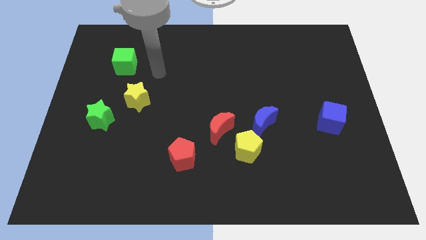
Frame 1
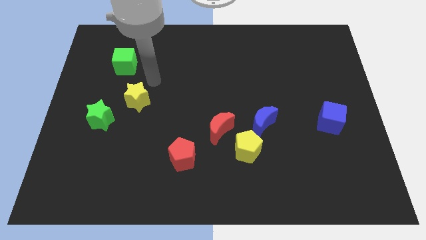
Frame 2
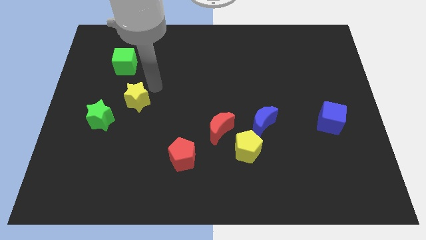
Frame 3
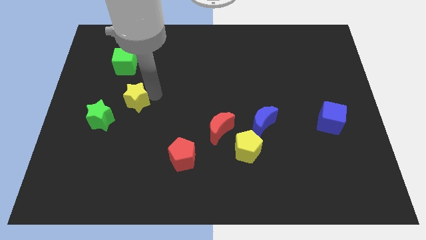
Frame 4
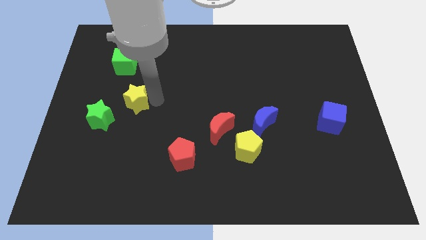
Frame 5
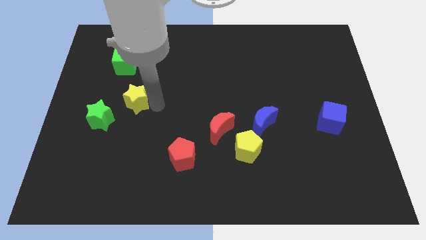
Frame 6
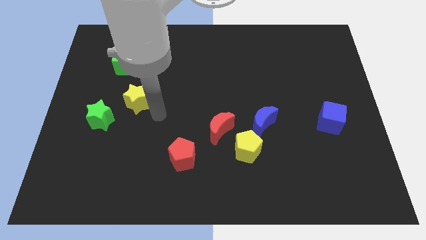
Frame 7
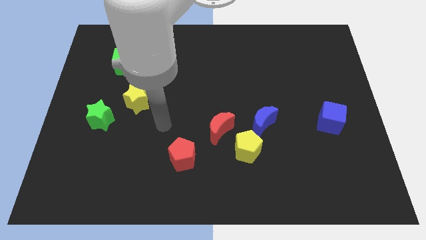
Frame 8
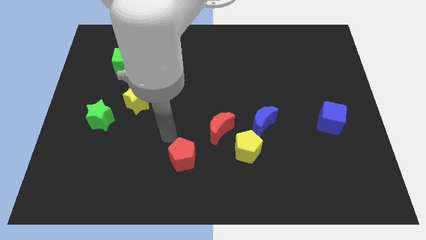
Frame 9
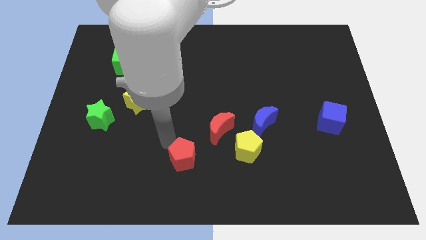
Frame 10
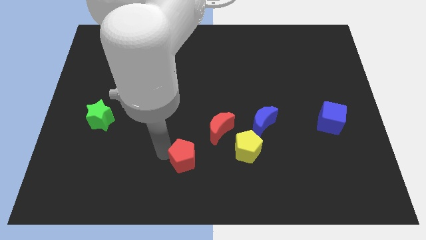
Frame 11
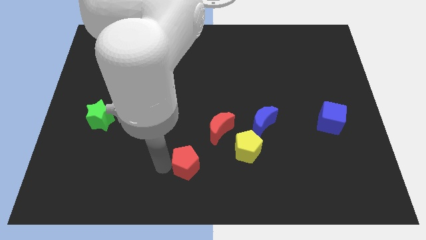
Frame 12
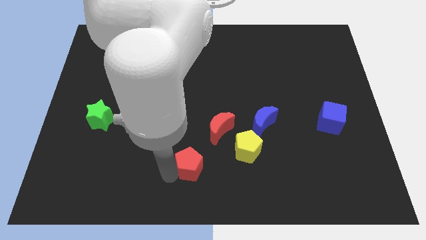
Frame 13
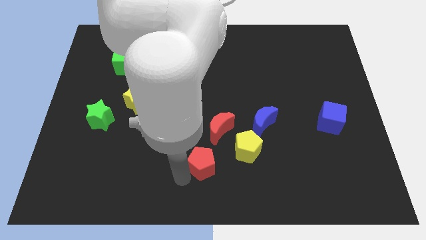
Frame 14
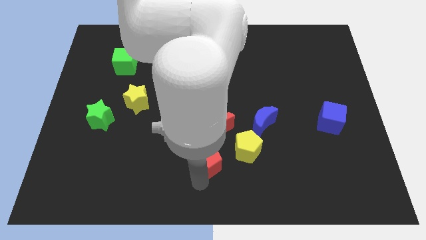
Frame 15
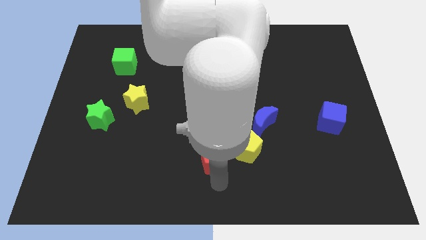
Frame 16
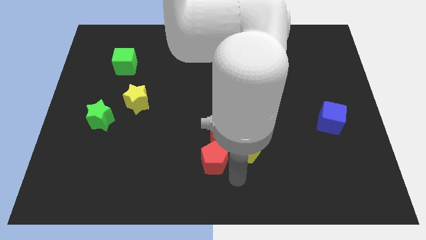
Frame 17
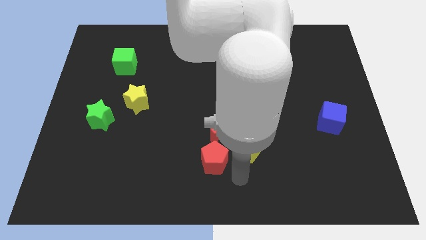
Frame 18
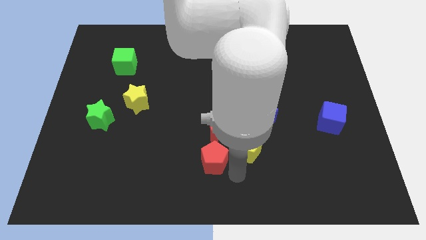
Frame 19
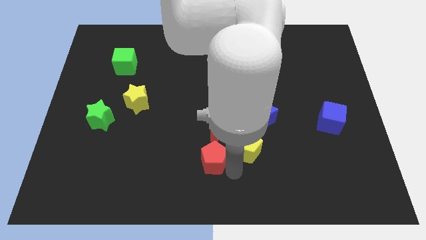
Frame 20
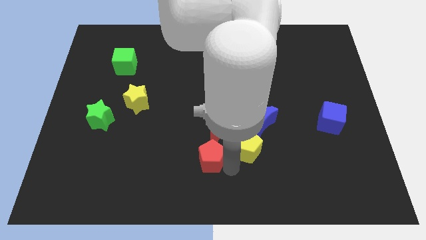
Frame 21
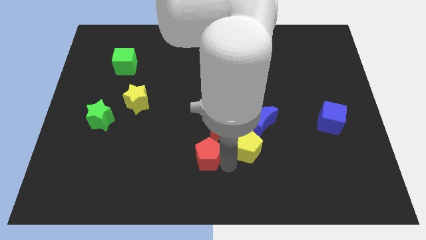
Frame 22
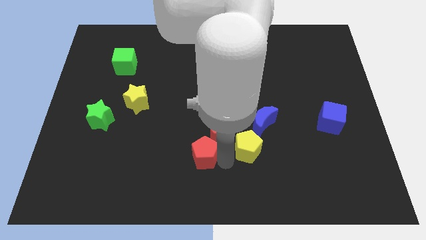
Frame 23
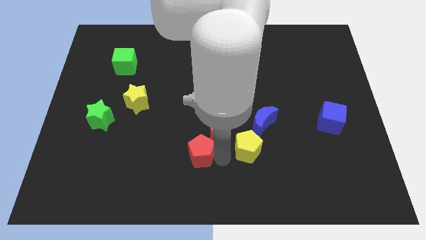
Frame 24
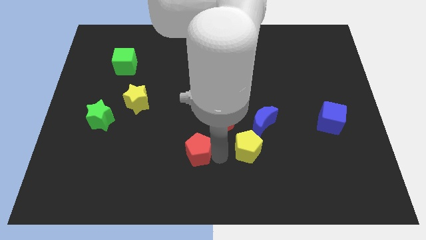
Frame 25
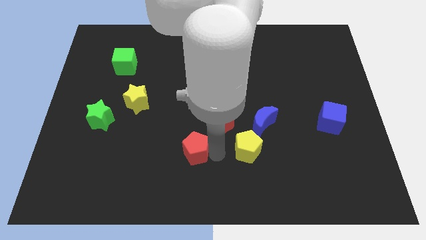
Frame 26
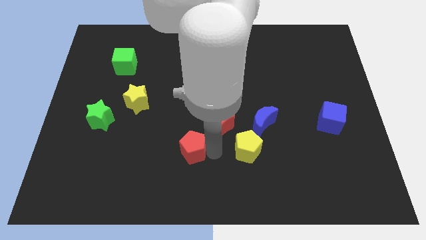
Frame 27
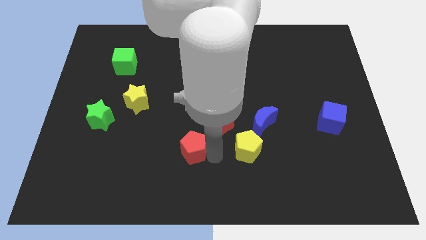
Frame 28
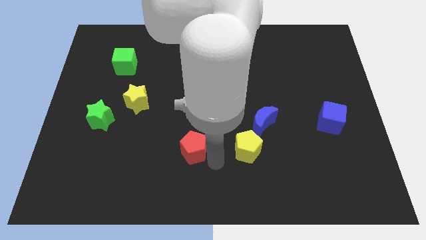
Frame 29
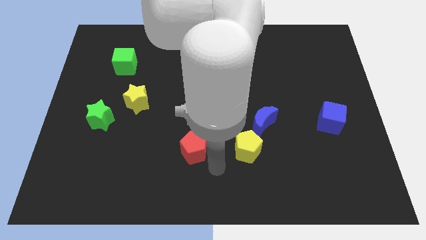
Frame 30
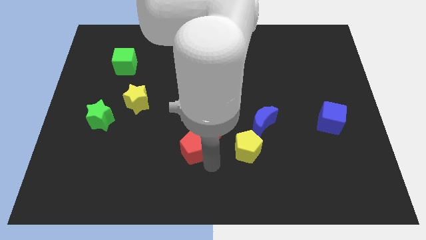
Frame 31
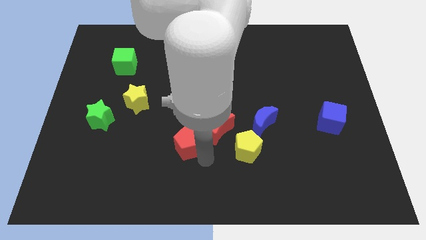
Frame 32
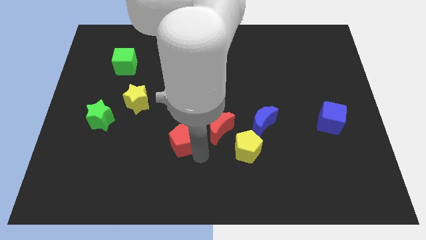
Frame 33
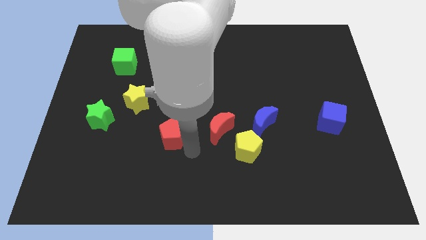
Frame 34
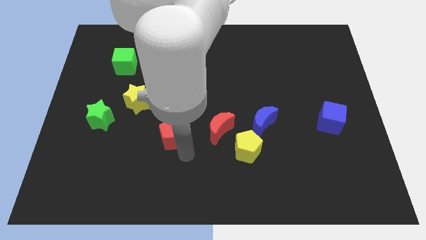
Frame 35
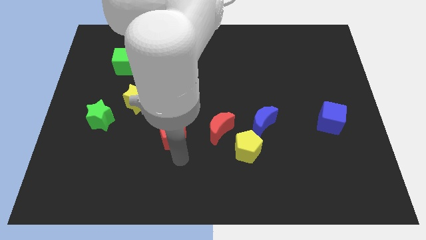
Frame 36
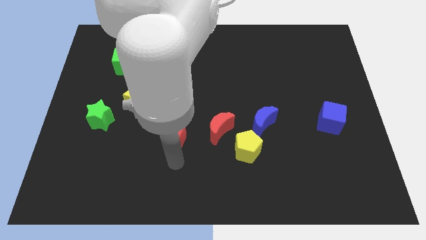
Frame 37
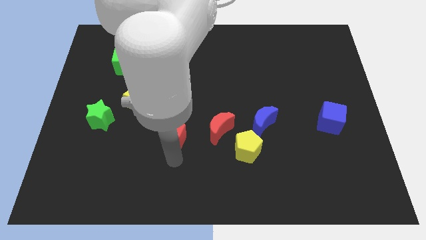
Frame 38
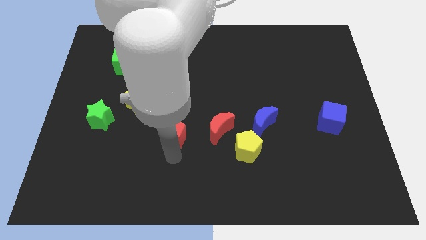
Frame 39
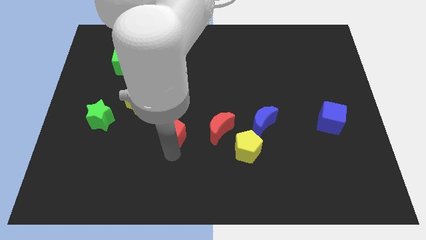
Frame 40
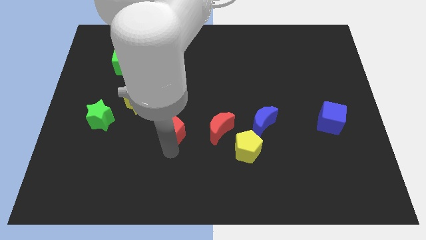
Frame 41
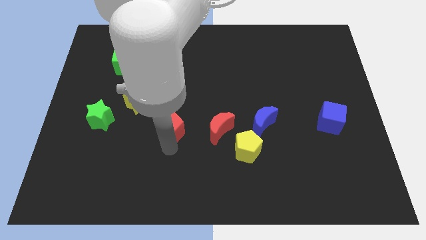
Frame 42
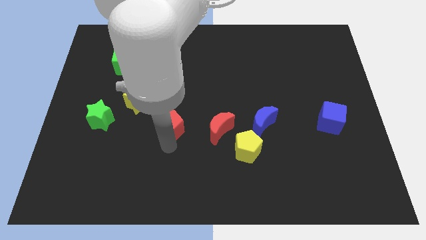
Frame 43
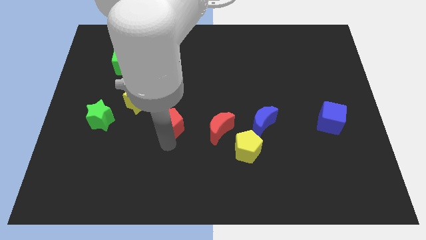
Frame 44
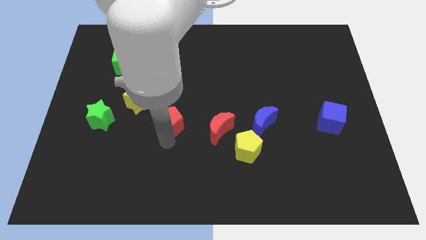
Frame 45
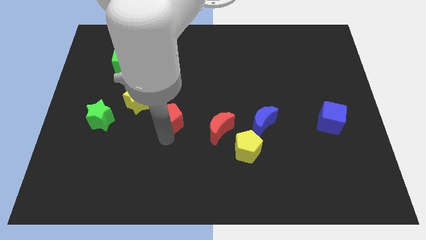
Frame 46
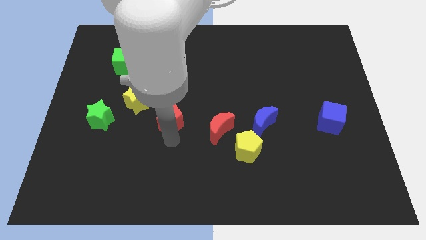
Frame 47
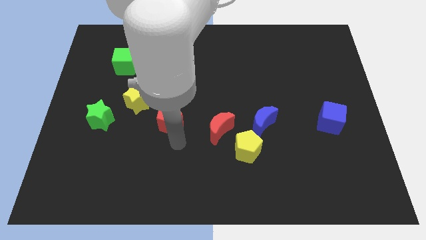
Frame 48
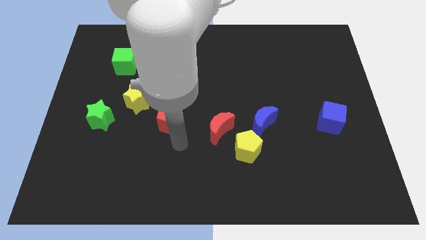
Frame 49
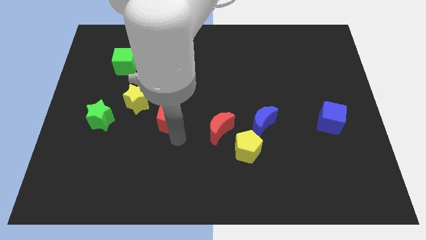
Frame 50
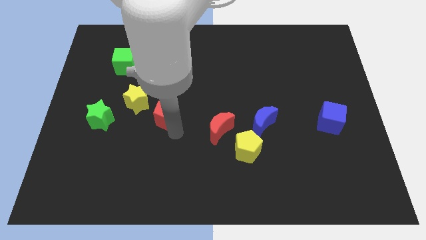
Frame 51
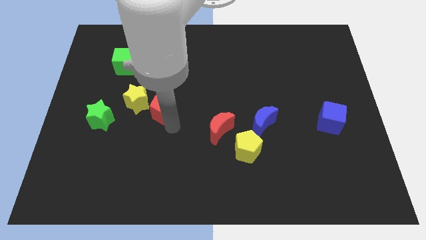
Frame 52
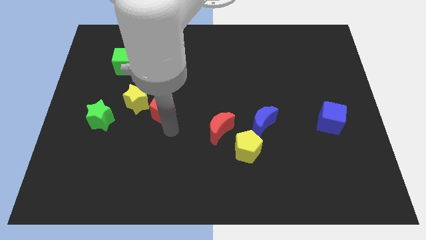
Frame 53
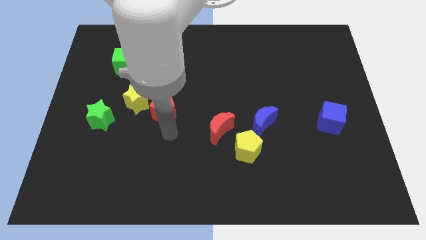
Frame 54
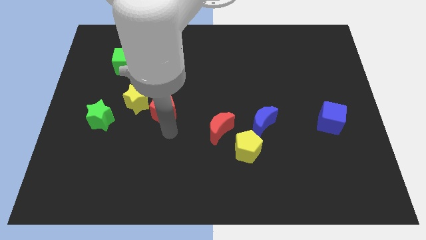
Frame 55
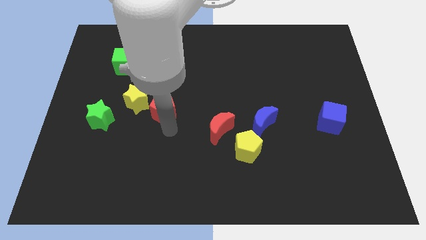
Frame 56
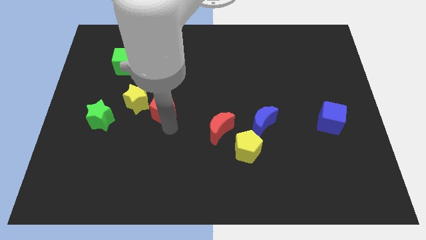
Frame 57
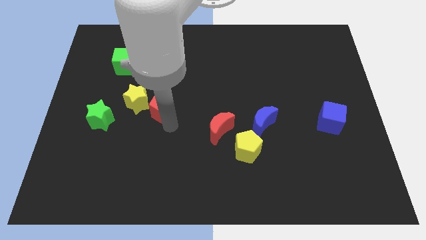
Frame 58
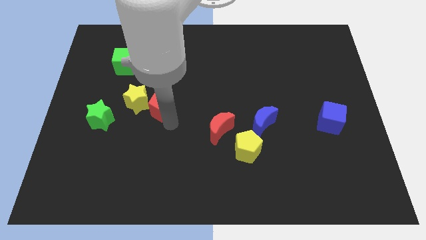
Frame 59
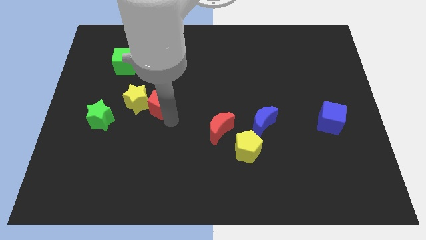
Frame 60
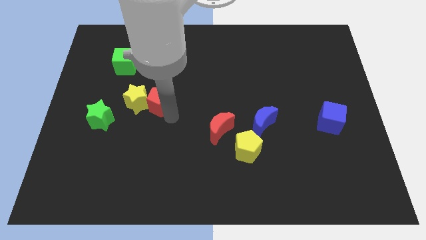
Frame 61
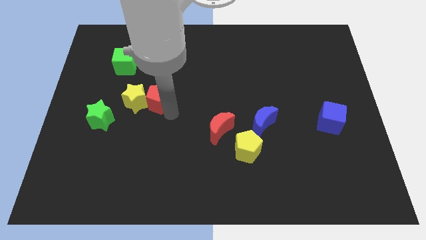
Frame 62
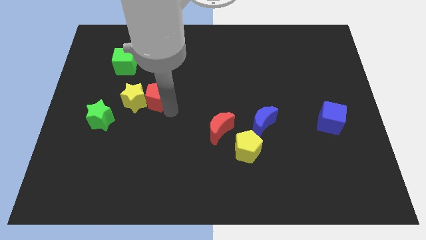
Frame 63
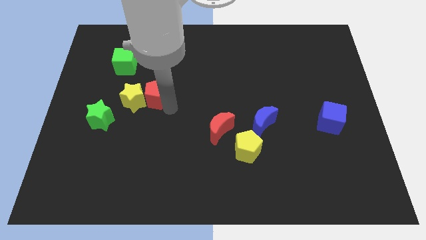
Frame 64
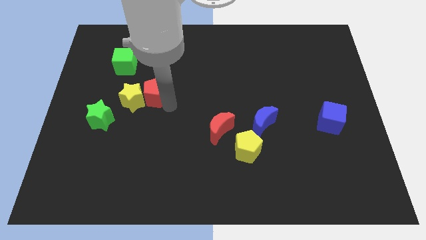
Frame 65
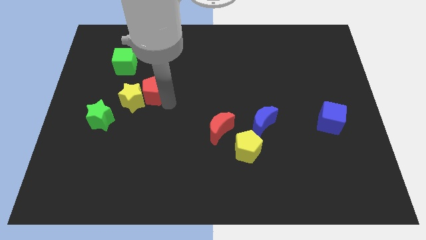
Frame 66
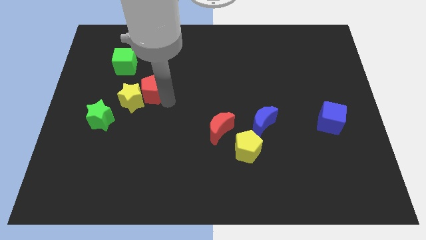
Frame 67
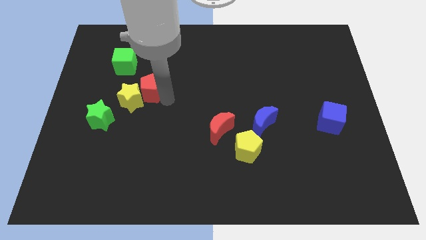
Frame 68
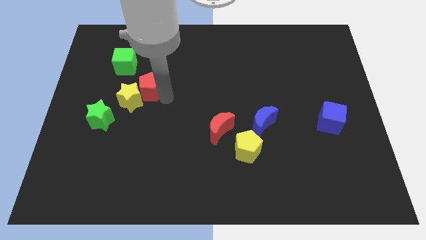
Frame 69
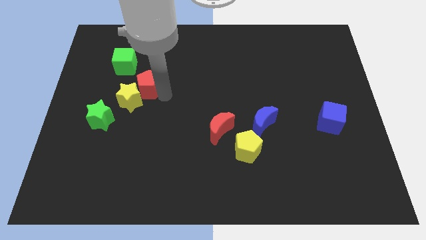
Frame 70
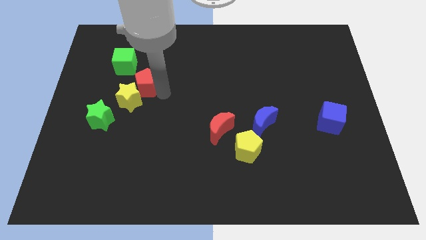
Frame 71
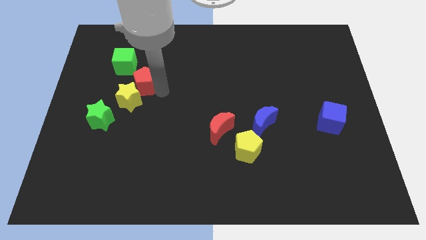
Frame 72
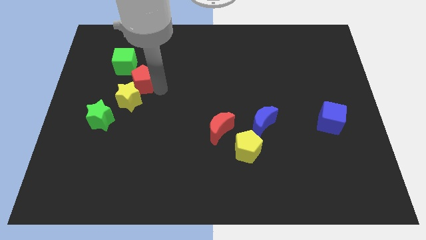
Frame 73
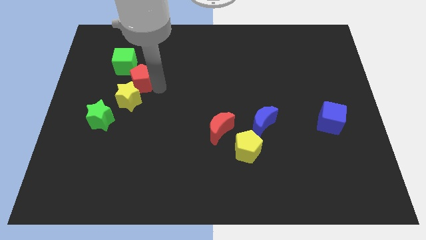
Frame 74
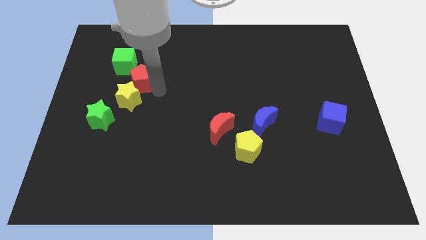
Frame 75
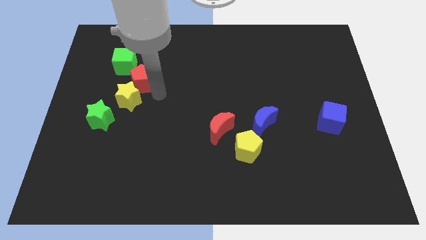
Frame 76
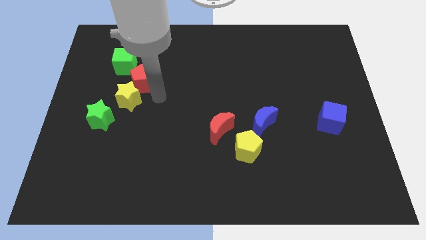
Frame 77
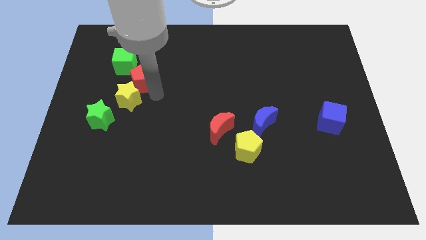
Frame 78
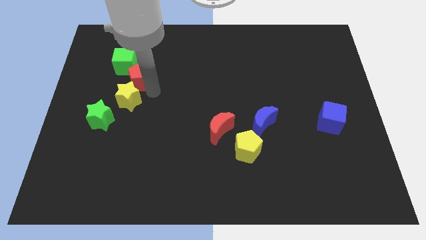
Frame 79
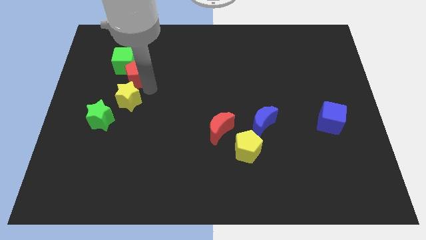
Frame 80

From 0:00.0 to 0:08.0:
move the red pentagon next to the green cube
